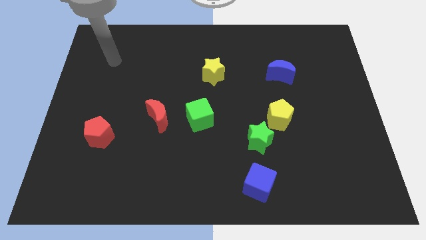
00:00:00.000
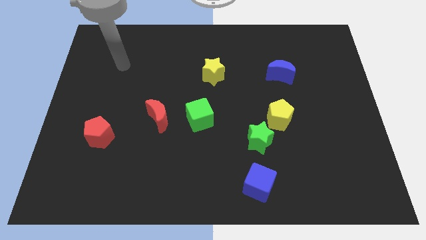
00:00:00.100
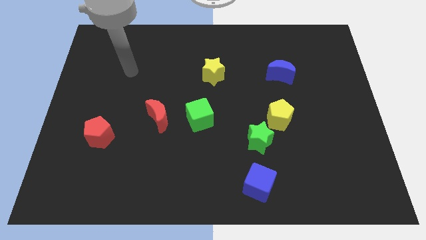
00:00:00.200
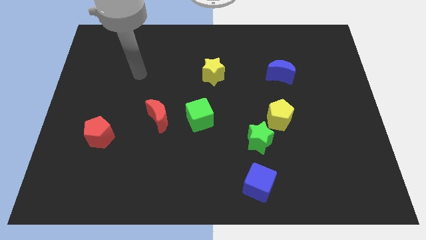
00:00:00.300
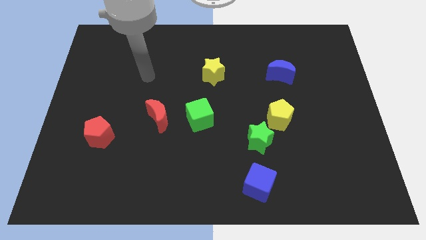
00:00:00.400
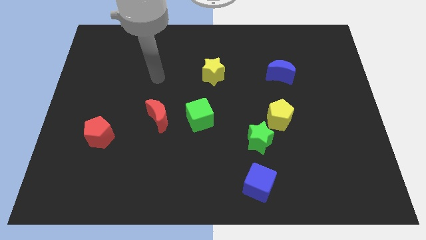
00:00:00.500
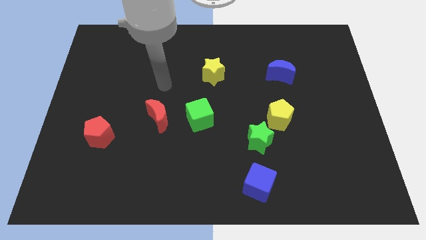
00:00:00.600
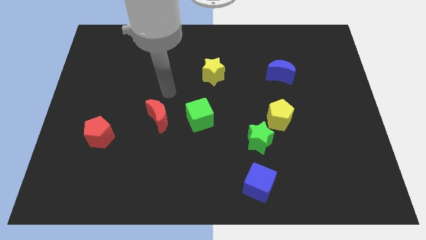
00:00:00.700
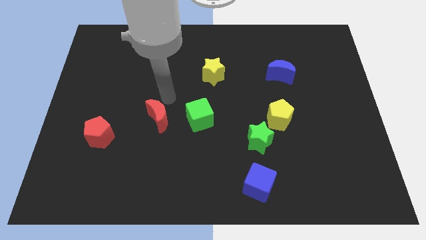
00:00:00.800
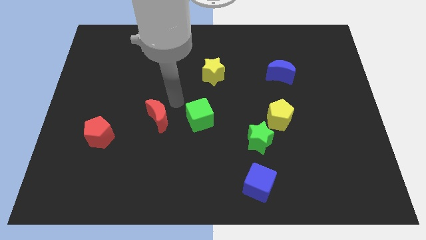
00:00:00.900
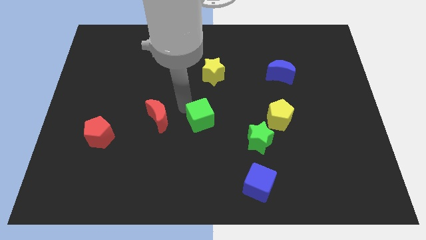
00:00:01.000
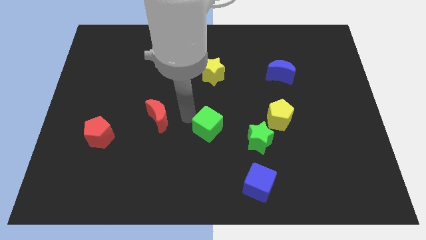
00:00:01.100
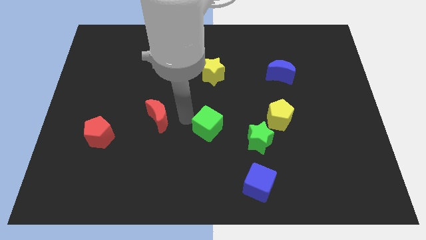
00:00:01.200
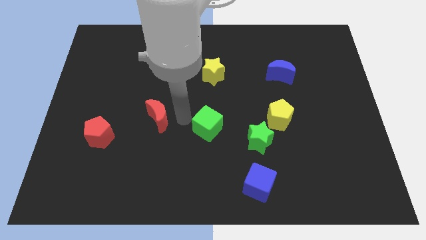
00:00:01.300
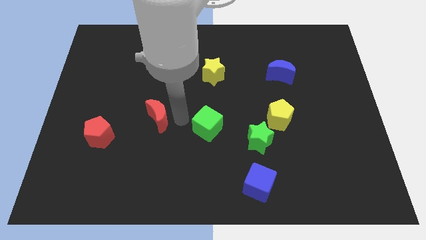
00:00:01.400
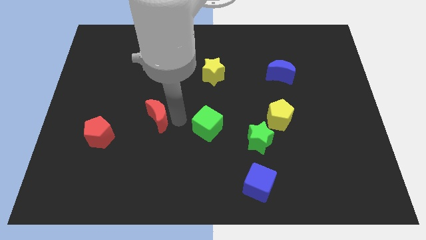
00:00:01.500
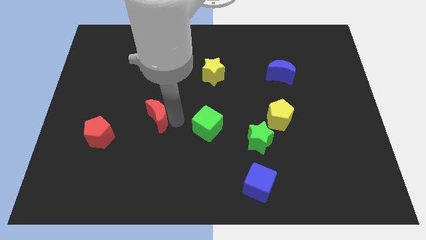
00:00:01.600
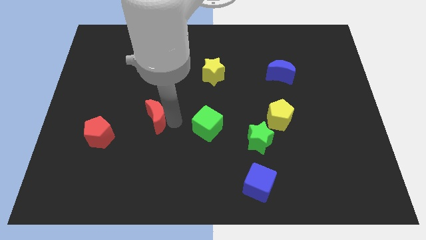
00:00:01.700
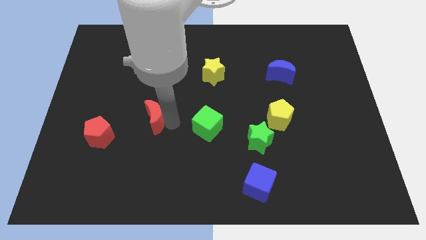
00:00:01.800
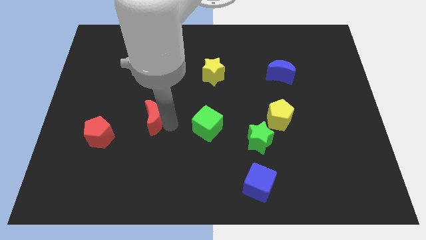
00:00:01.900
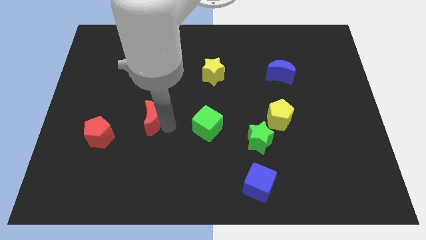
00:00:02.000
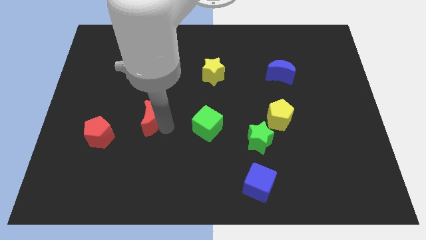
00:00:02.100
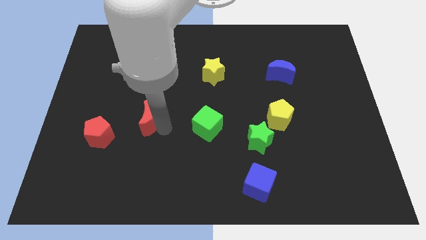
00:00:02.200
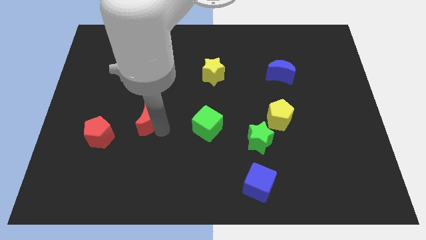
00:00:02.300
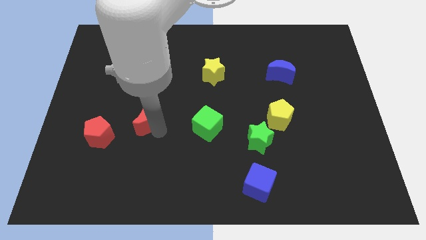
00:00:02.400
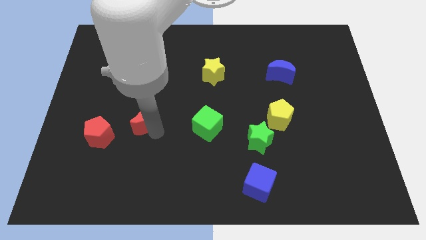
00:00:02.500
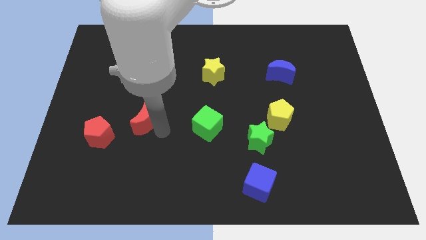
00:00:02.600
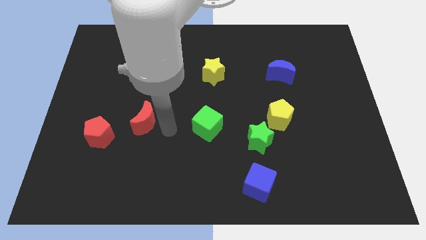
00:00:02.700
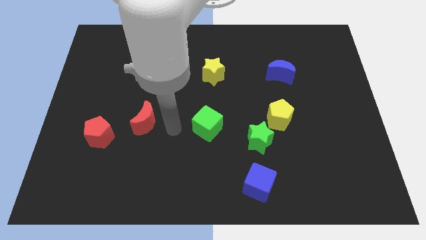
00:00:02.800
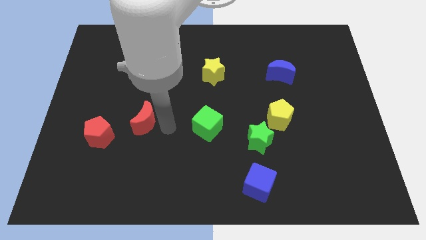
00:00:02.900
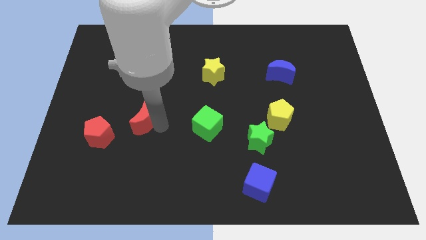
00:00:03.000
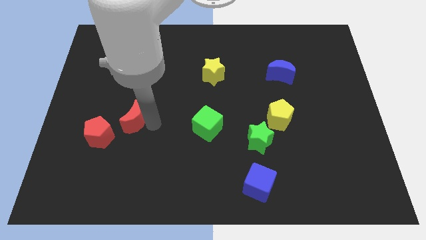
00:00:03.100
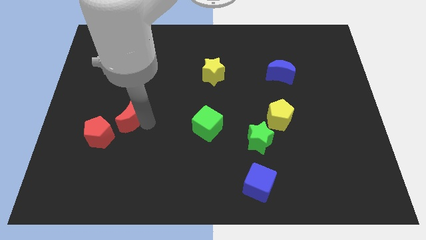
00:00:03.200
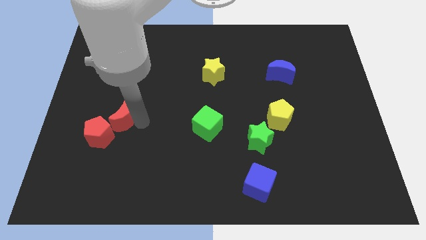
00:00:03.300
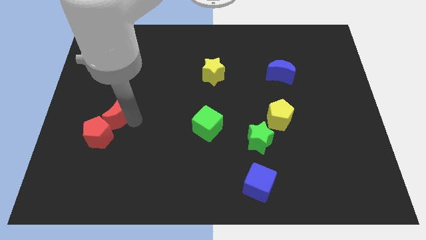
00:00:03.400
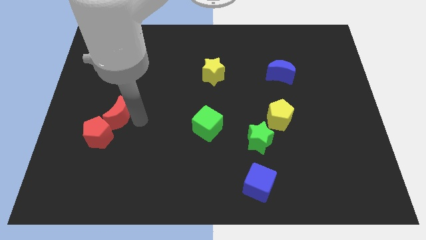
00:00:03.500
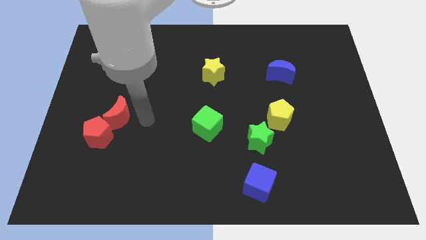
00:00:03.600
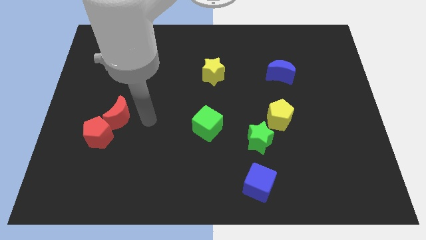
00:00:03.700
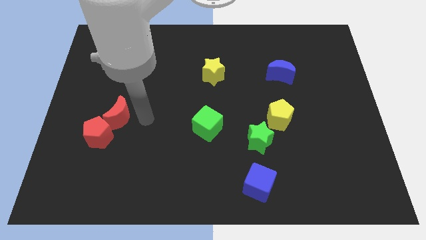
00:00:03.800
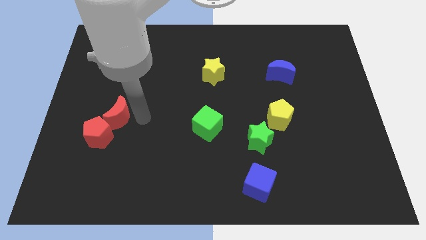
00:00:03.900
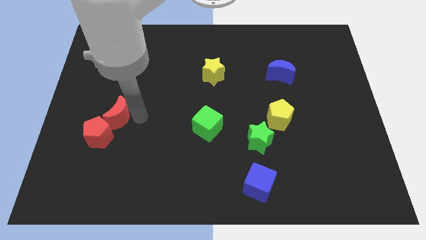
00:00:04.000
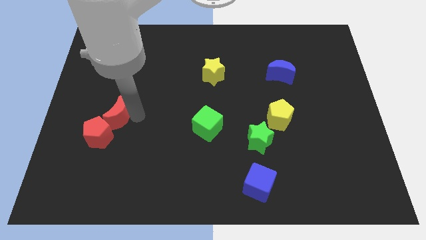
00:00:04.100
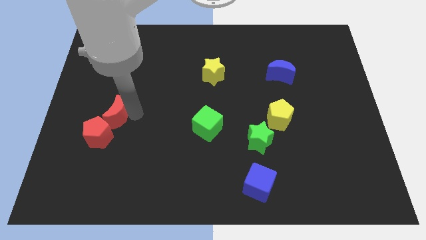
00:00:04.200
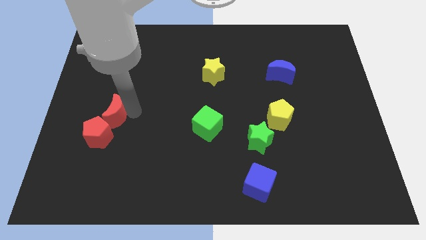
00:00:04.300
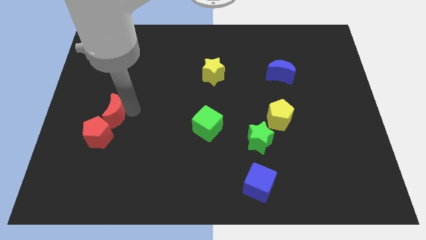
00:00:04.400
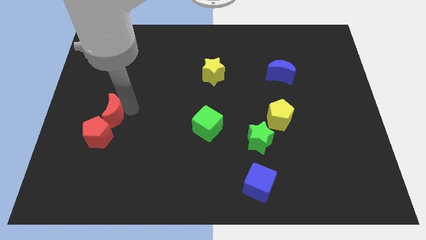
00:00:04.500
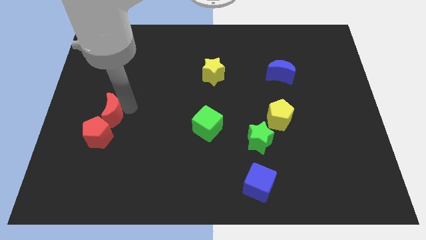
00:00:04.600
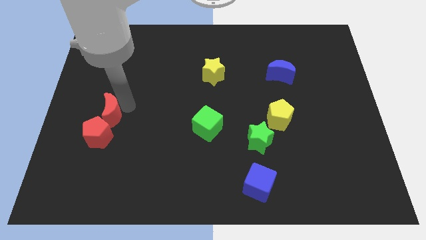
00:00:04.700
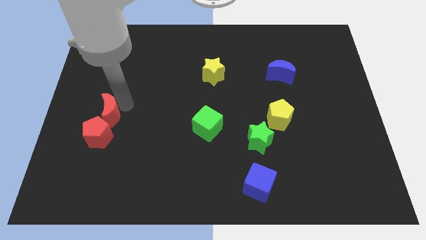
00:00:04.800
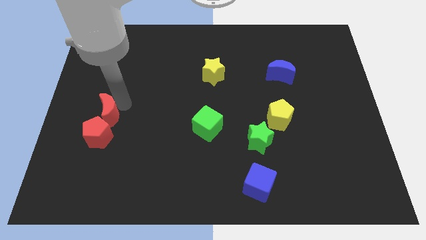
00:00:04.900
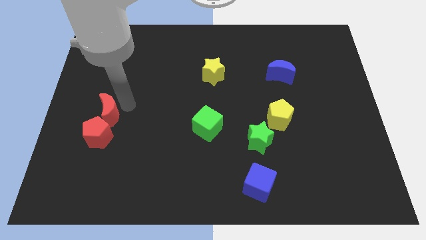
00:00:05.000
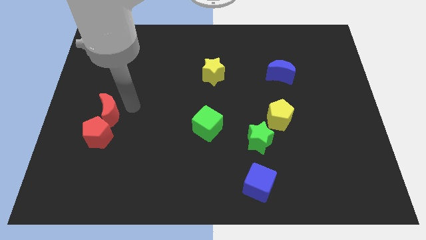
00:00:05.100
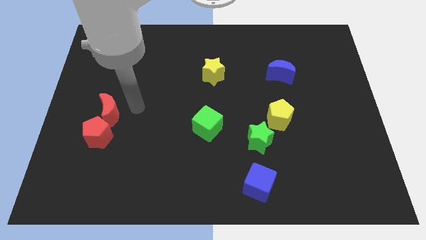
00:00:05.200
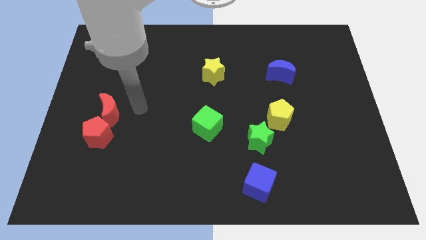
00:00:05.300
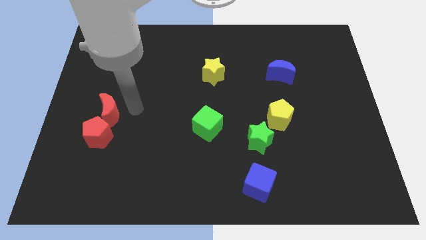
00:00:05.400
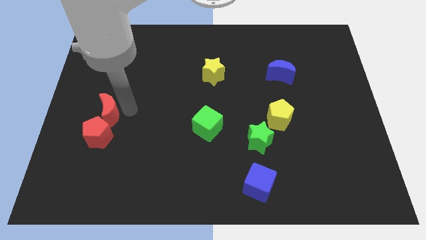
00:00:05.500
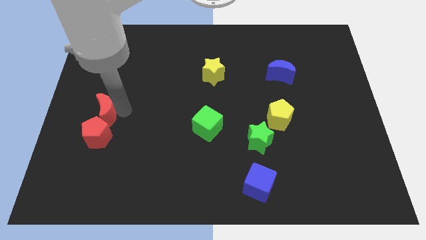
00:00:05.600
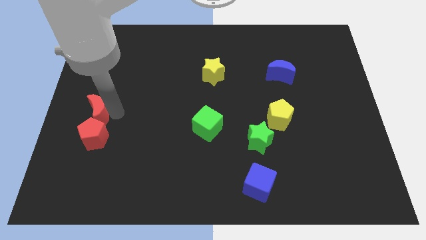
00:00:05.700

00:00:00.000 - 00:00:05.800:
slide the red moon to the left side

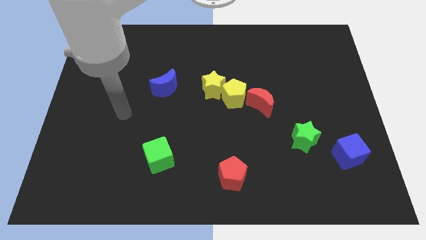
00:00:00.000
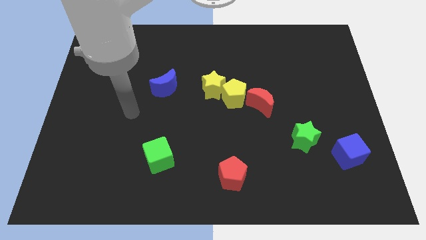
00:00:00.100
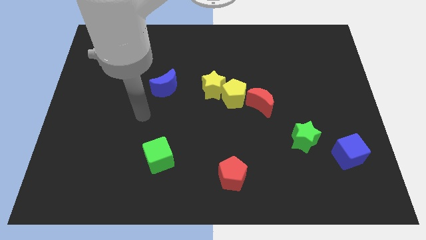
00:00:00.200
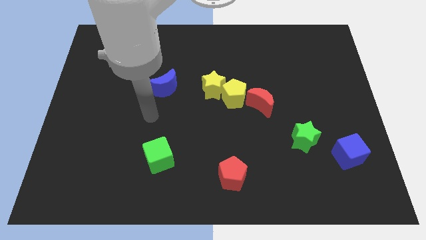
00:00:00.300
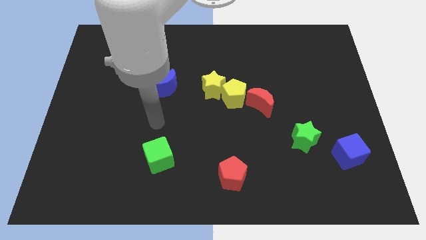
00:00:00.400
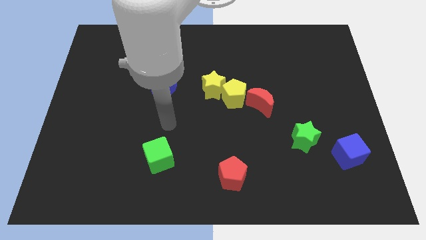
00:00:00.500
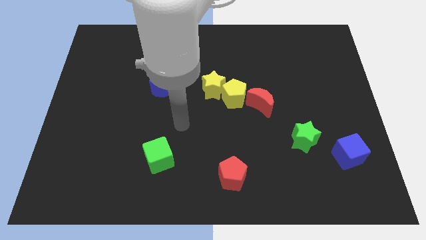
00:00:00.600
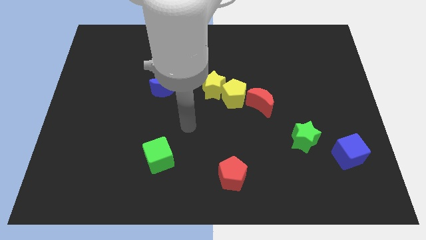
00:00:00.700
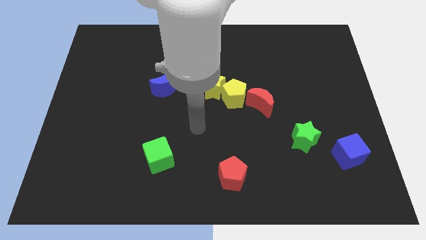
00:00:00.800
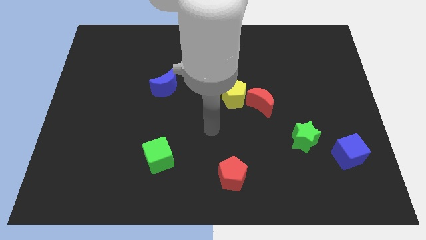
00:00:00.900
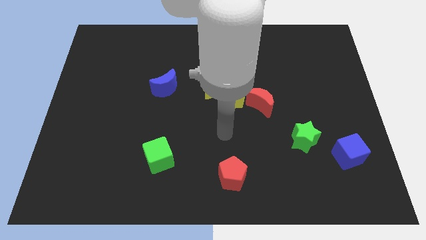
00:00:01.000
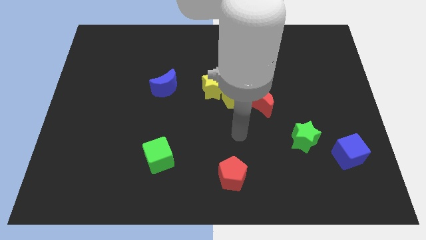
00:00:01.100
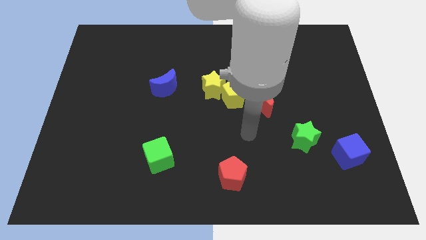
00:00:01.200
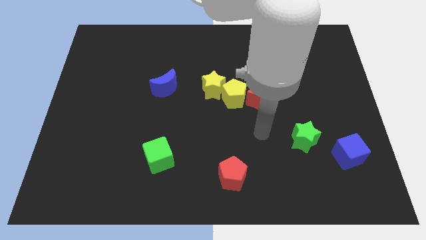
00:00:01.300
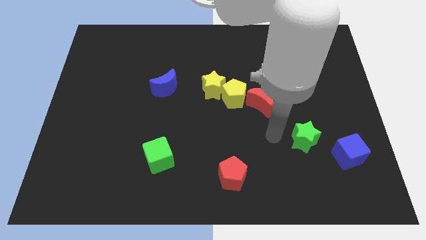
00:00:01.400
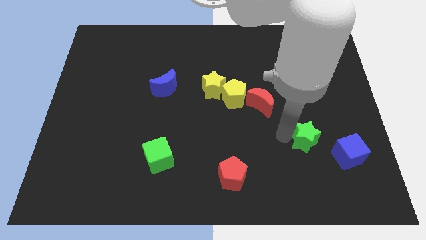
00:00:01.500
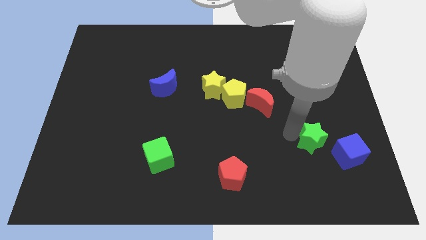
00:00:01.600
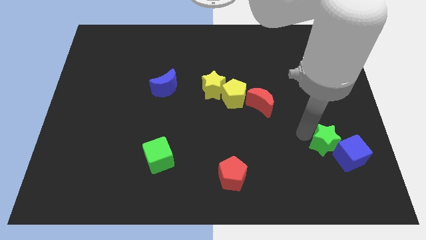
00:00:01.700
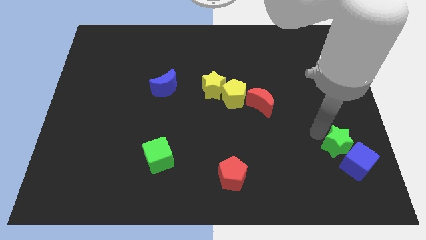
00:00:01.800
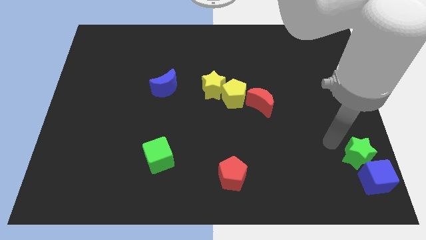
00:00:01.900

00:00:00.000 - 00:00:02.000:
put the blue cube to the bottom right
